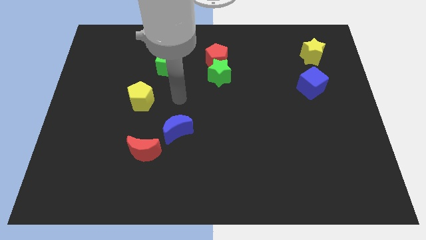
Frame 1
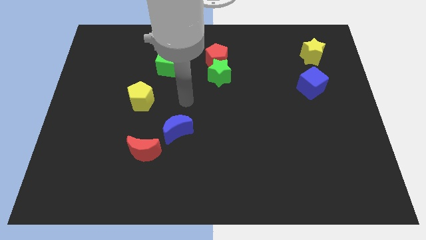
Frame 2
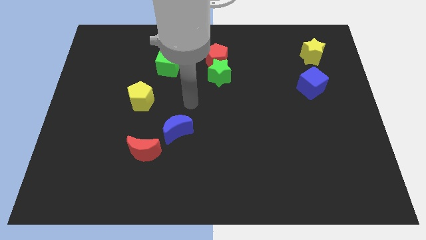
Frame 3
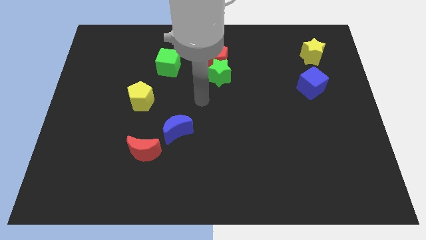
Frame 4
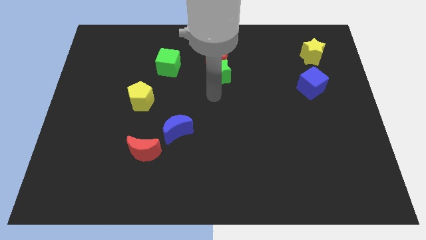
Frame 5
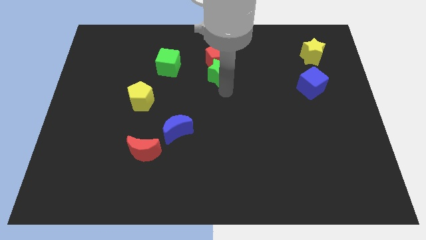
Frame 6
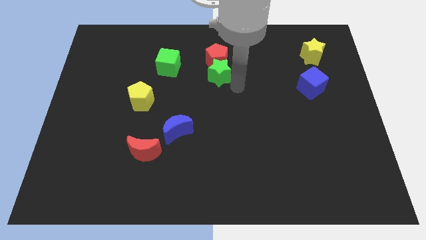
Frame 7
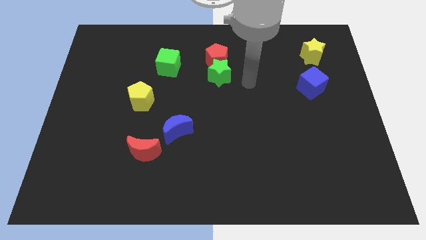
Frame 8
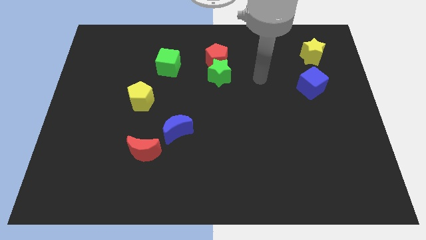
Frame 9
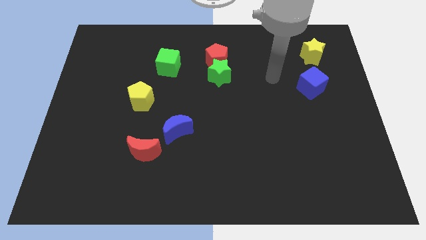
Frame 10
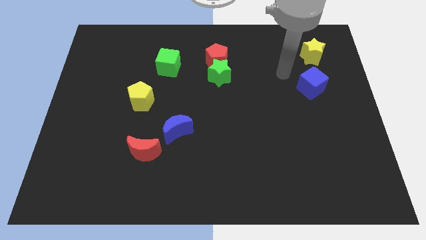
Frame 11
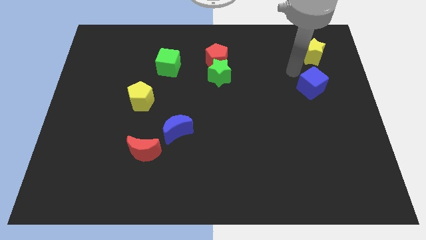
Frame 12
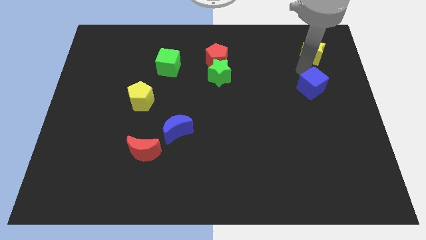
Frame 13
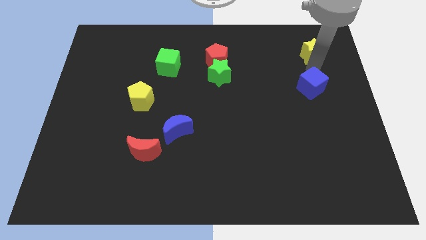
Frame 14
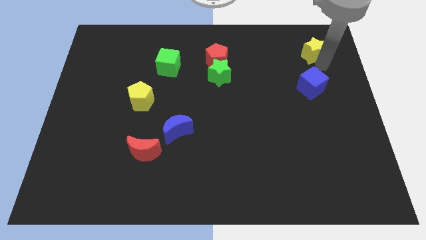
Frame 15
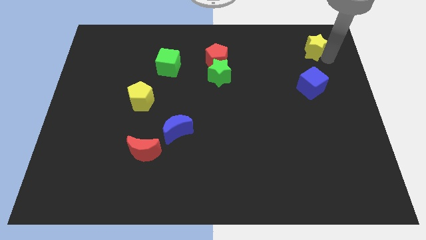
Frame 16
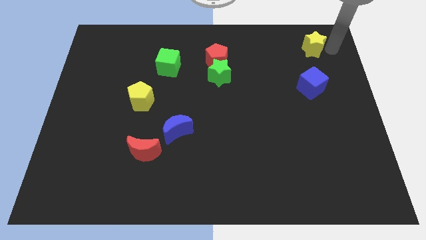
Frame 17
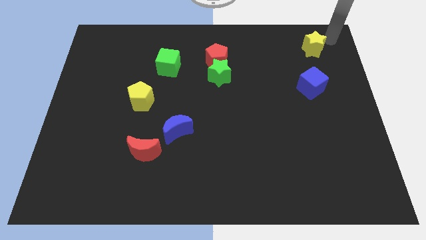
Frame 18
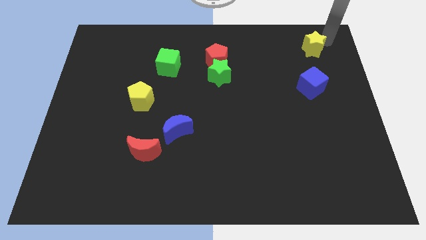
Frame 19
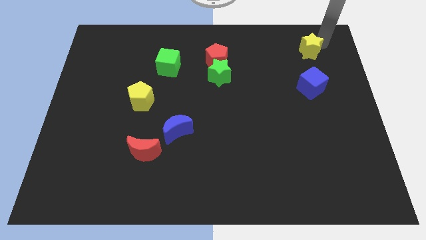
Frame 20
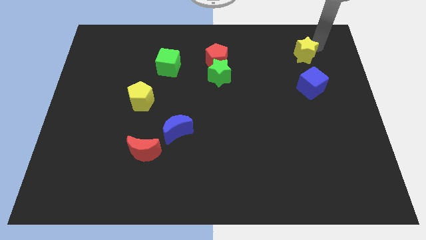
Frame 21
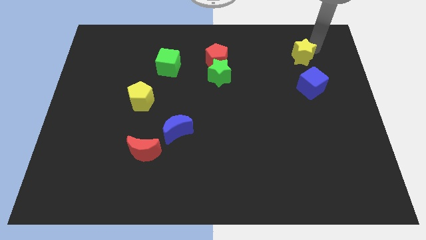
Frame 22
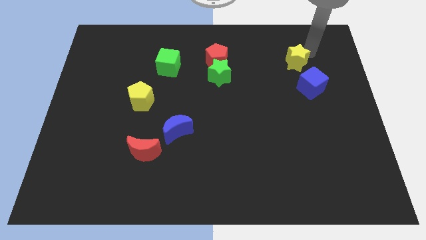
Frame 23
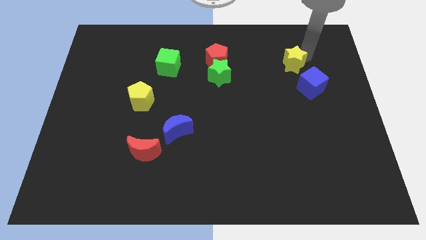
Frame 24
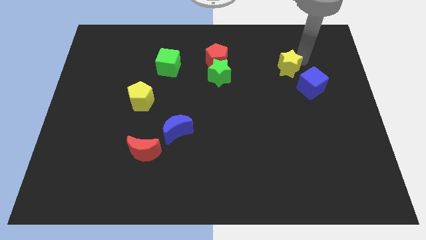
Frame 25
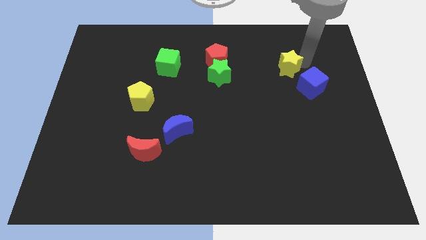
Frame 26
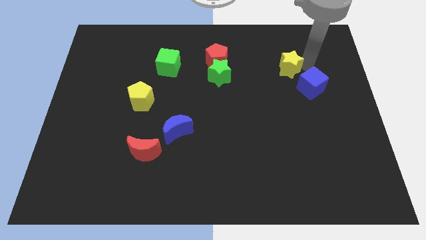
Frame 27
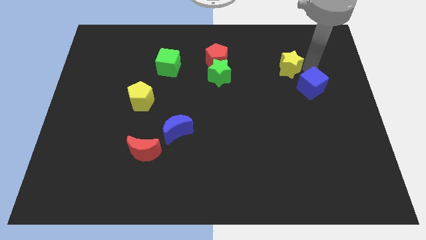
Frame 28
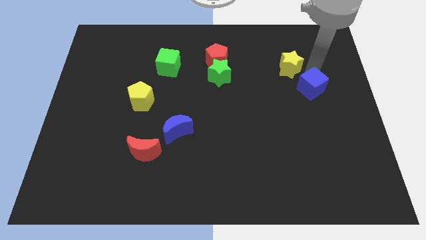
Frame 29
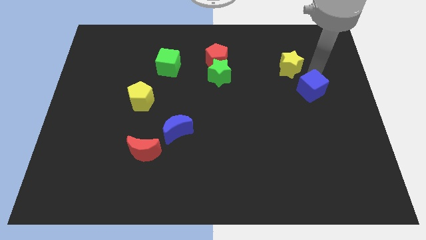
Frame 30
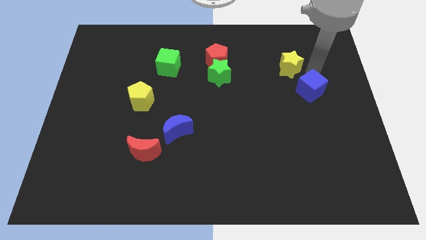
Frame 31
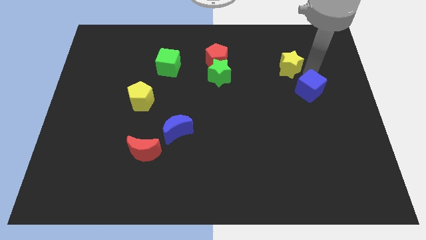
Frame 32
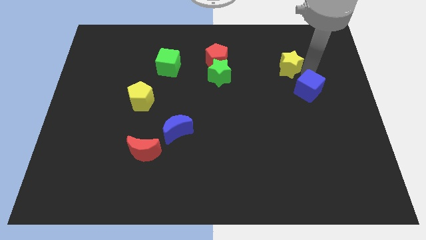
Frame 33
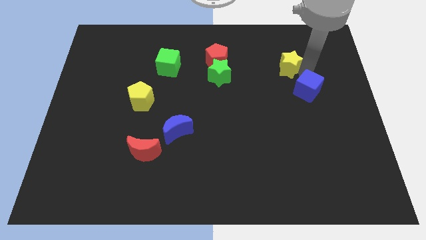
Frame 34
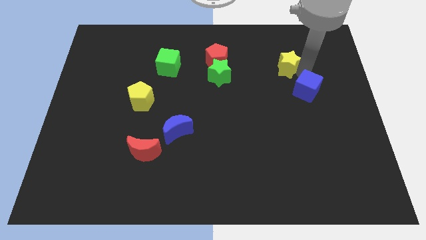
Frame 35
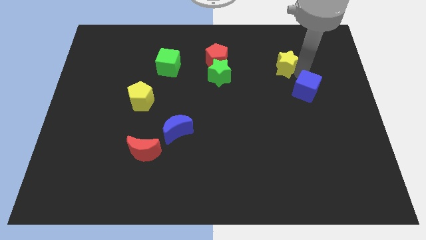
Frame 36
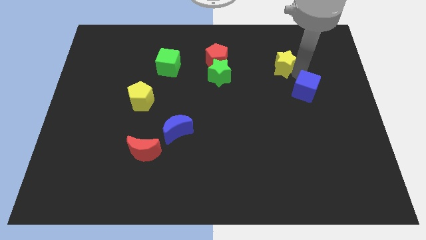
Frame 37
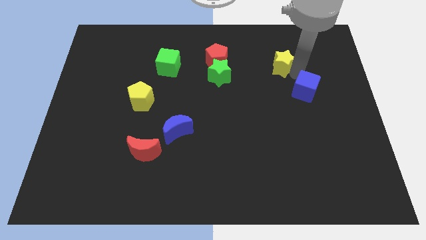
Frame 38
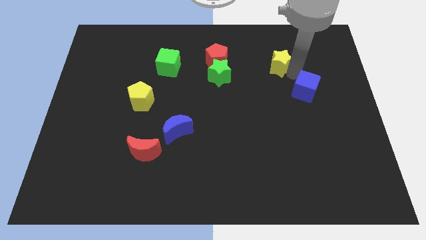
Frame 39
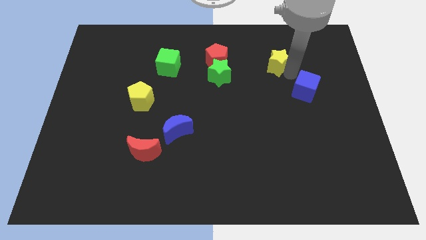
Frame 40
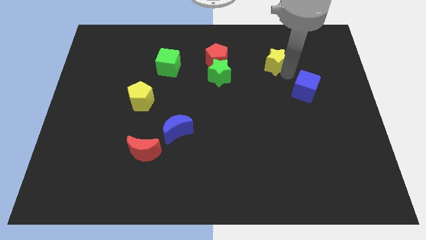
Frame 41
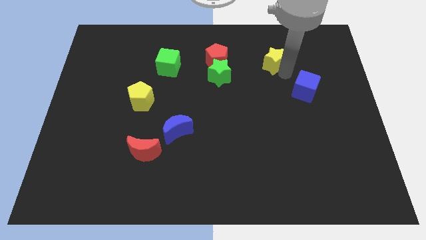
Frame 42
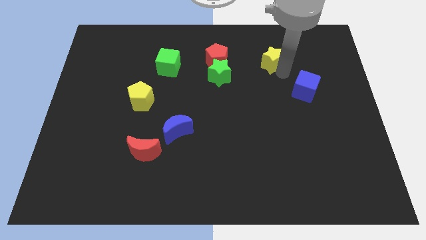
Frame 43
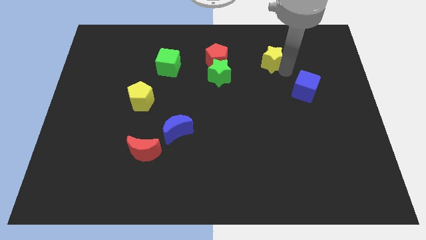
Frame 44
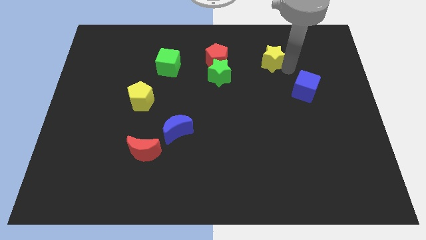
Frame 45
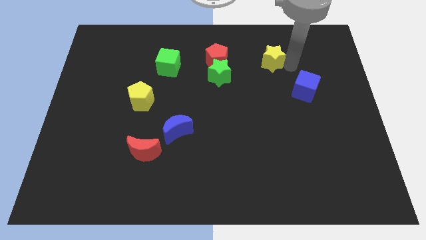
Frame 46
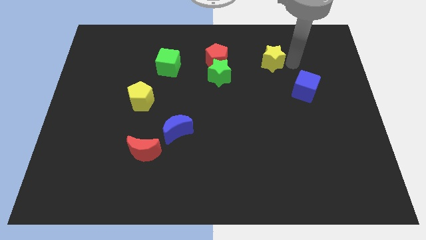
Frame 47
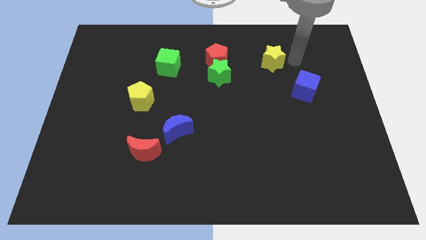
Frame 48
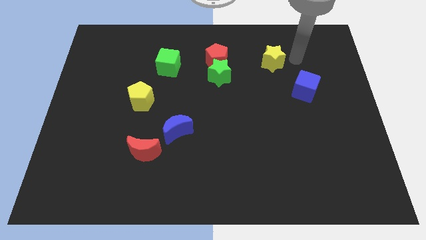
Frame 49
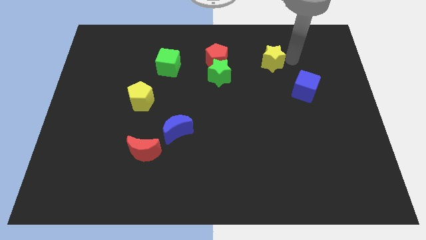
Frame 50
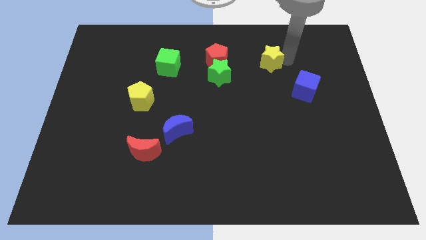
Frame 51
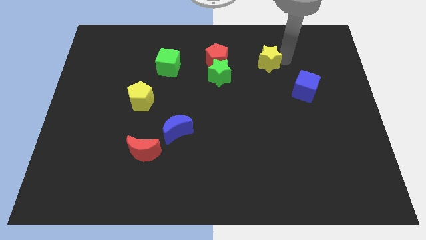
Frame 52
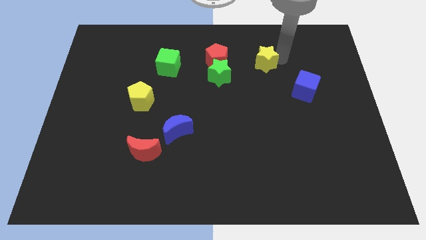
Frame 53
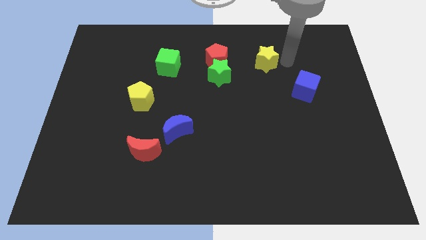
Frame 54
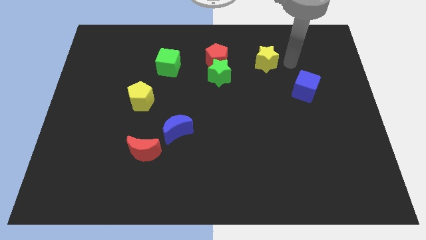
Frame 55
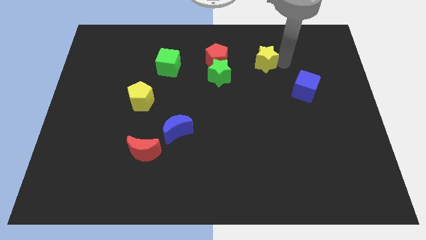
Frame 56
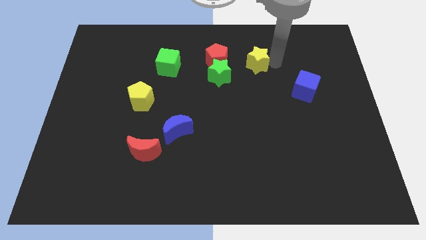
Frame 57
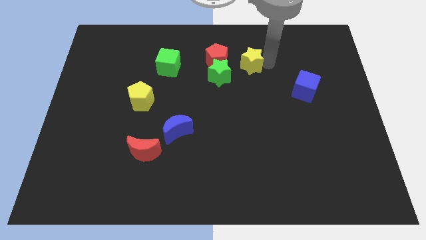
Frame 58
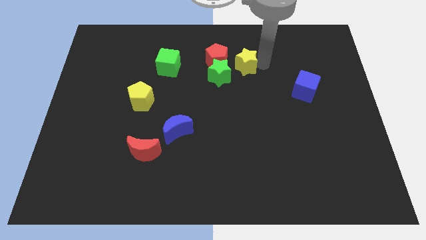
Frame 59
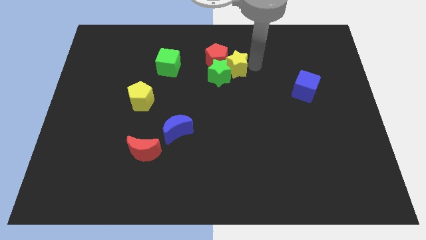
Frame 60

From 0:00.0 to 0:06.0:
push the yellow star close to the red pentagon

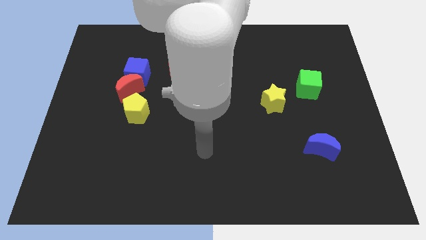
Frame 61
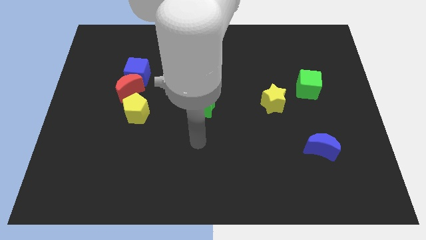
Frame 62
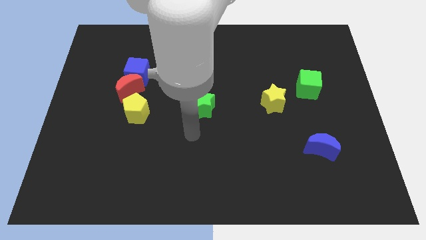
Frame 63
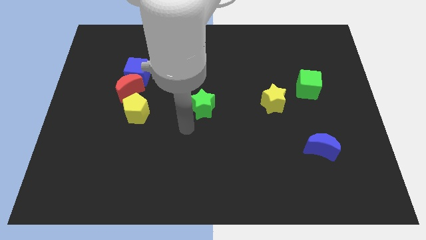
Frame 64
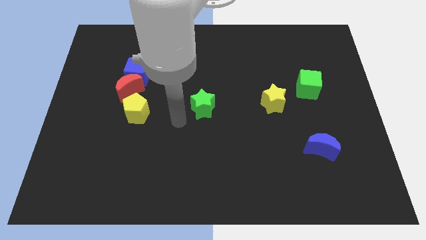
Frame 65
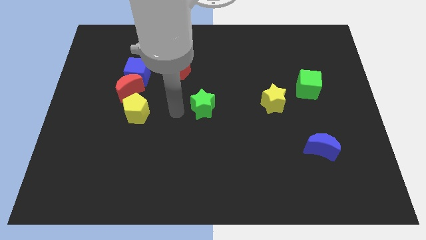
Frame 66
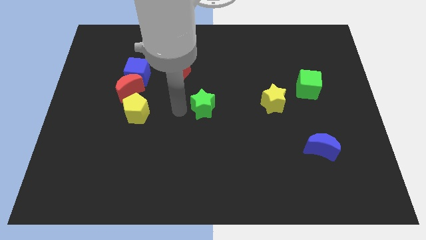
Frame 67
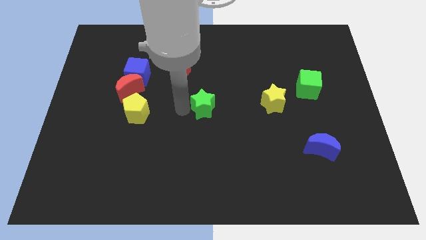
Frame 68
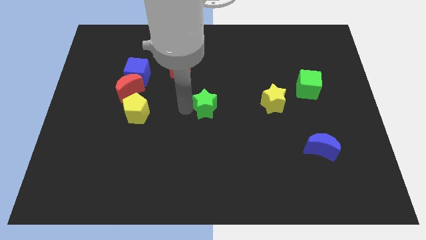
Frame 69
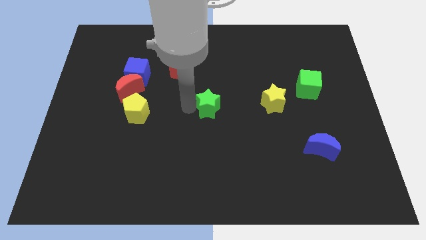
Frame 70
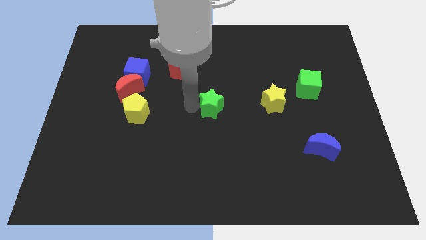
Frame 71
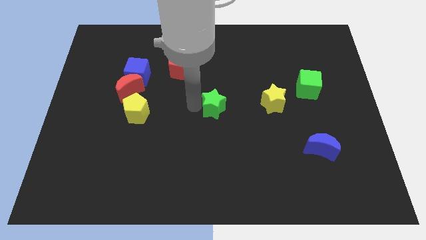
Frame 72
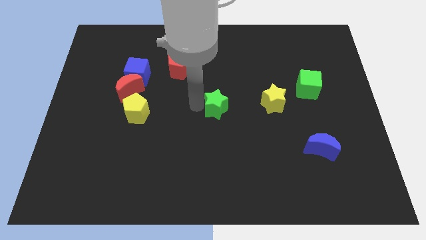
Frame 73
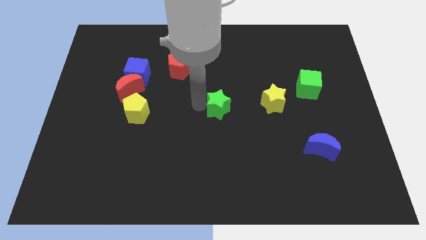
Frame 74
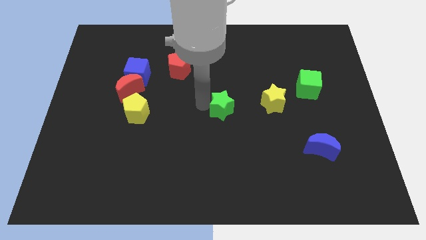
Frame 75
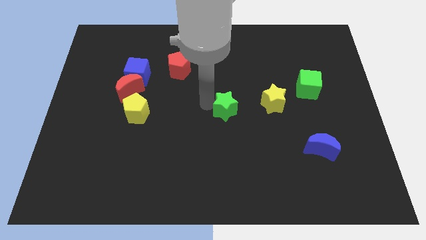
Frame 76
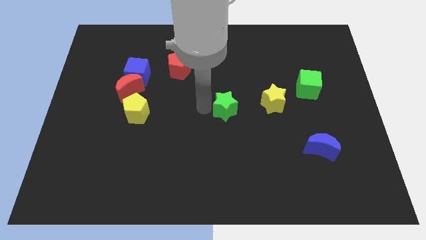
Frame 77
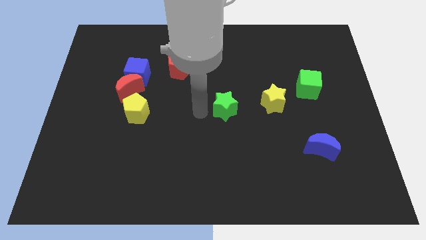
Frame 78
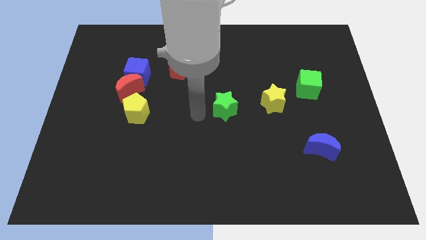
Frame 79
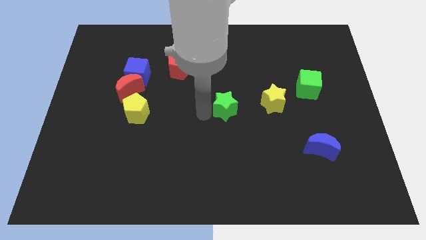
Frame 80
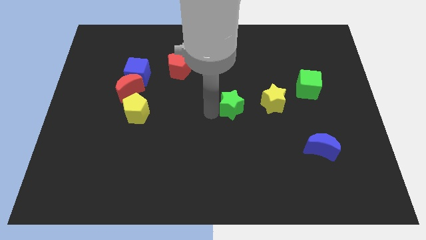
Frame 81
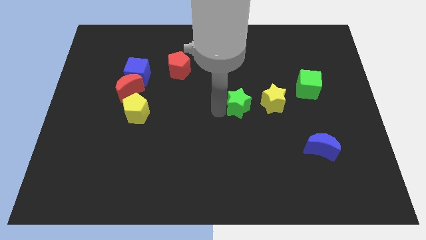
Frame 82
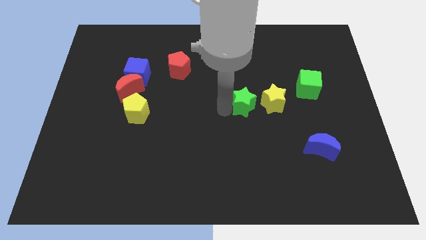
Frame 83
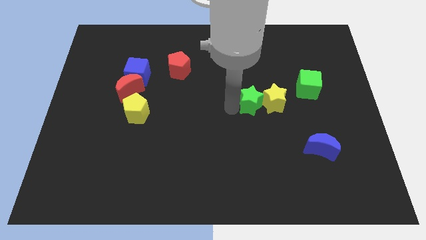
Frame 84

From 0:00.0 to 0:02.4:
push the green star next to the yellow star
